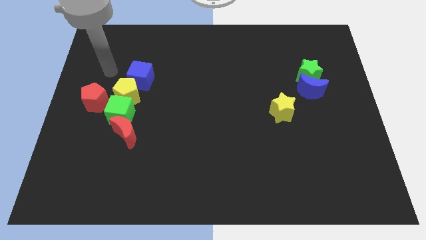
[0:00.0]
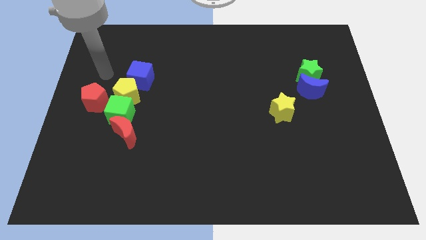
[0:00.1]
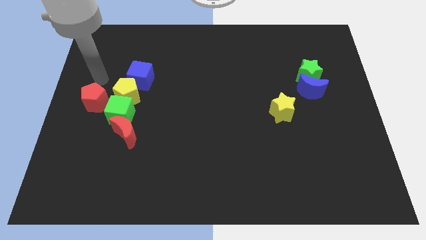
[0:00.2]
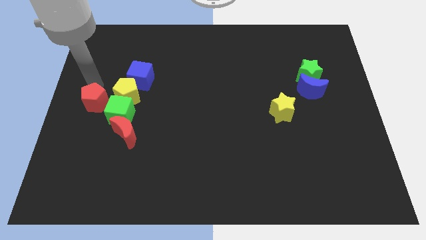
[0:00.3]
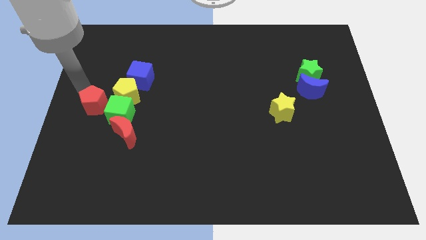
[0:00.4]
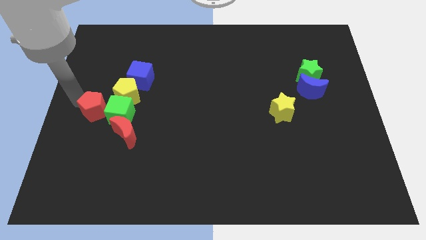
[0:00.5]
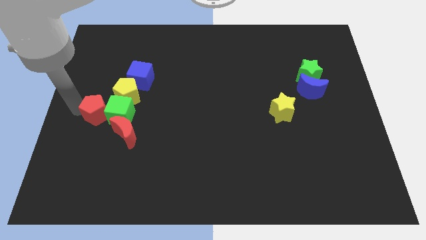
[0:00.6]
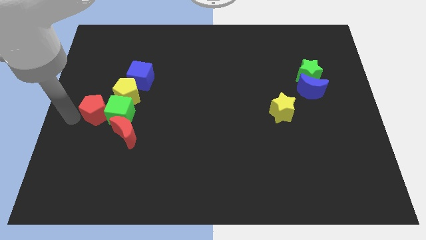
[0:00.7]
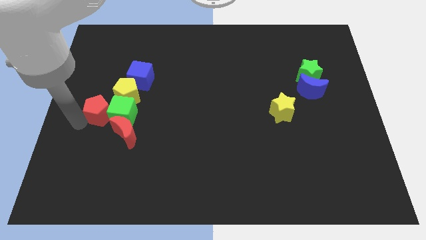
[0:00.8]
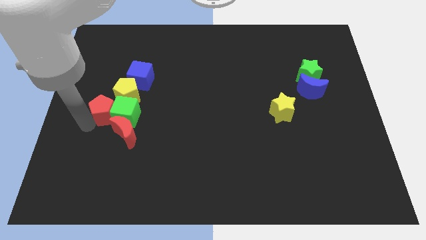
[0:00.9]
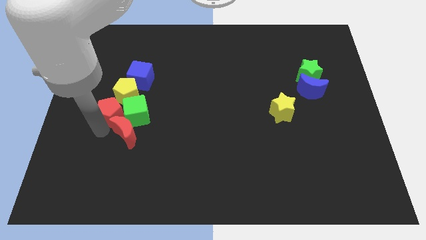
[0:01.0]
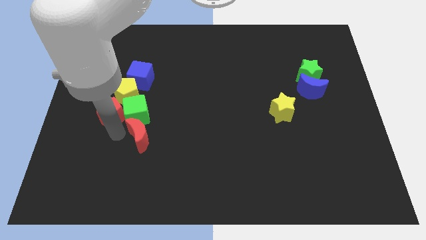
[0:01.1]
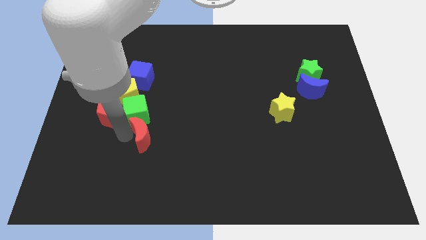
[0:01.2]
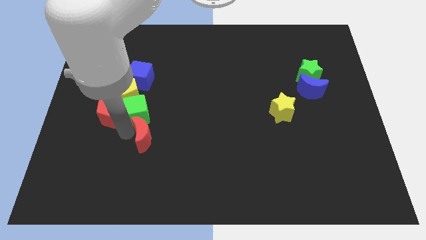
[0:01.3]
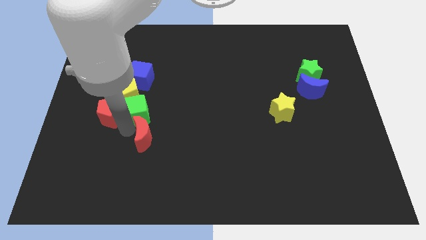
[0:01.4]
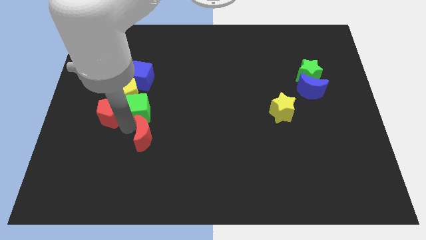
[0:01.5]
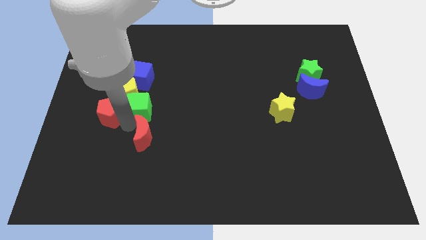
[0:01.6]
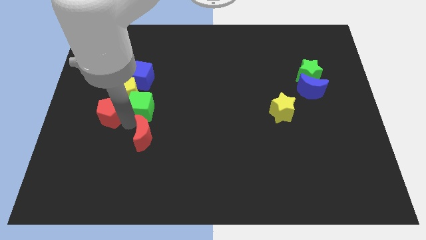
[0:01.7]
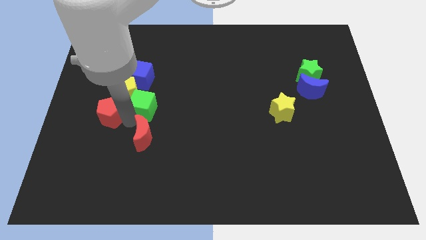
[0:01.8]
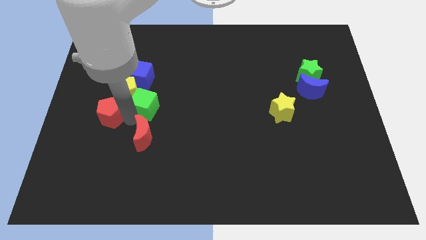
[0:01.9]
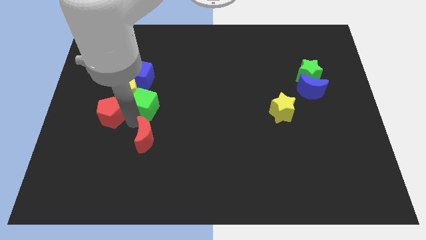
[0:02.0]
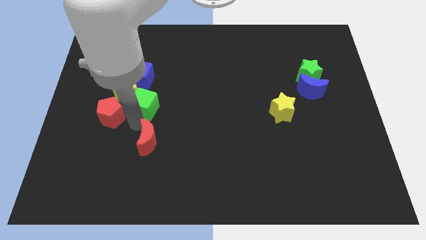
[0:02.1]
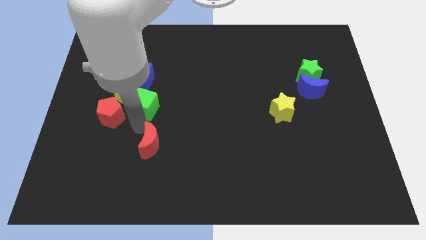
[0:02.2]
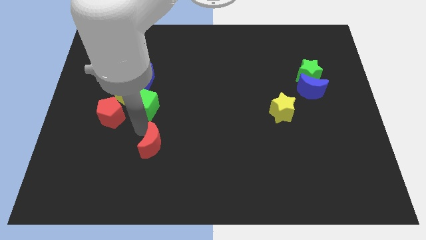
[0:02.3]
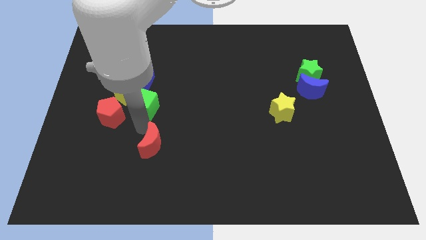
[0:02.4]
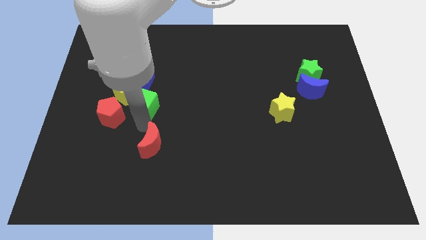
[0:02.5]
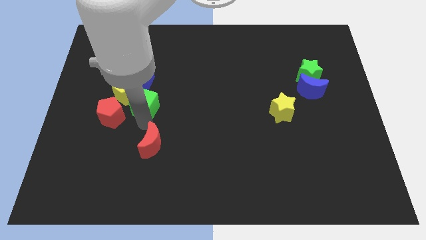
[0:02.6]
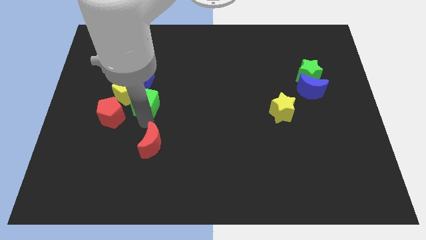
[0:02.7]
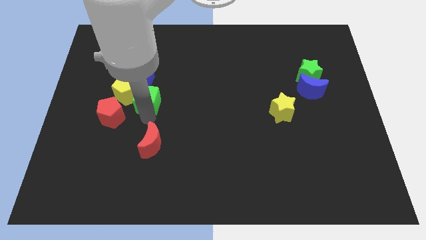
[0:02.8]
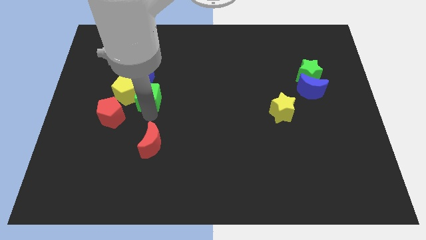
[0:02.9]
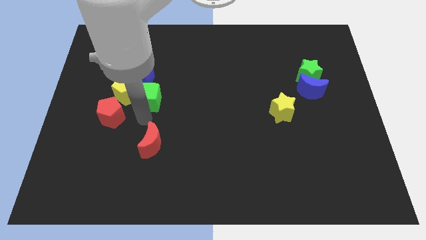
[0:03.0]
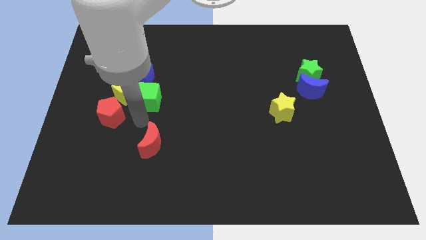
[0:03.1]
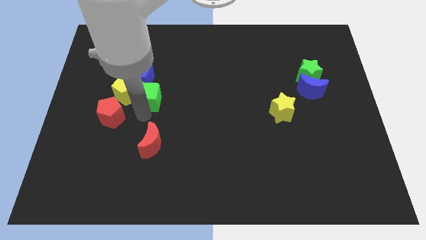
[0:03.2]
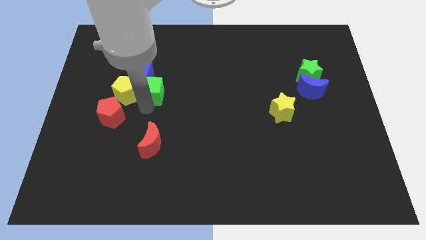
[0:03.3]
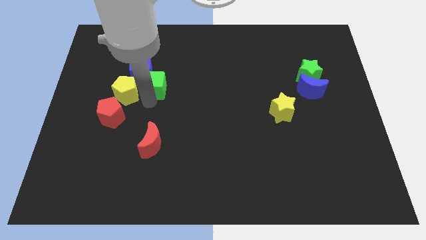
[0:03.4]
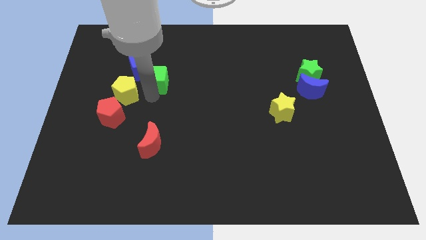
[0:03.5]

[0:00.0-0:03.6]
slide the green cube upwards a bit

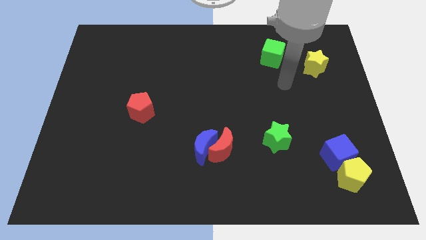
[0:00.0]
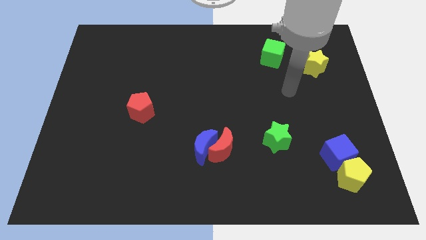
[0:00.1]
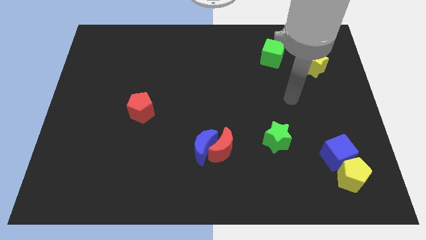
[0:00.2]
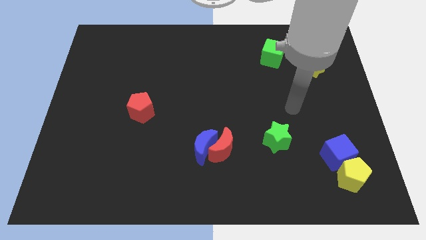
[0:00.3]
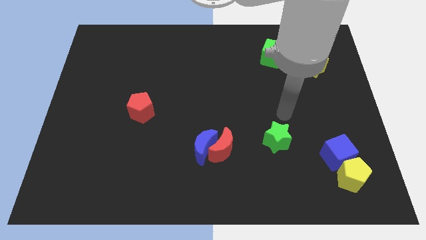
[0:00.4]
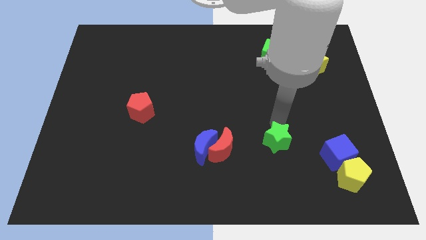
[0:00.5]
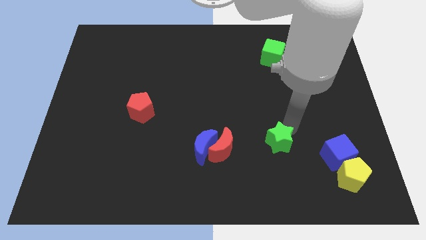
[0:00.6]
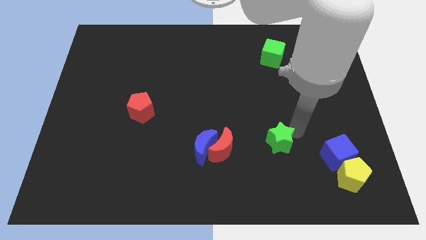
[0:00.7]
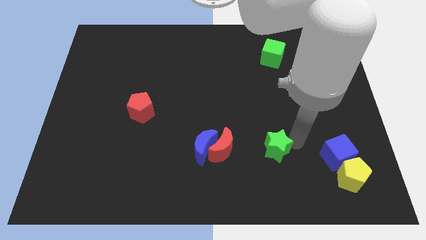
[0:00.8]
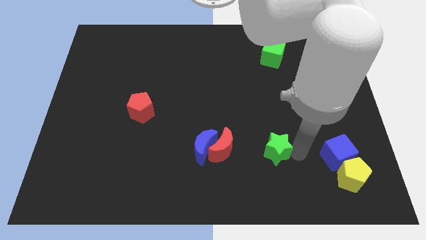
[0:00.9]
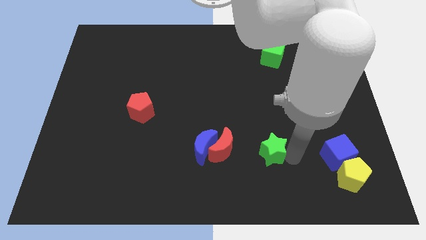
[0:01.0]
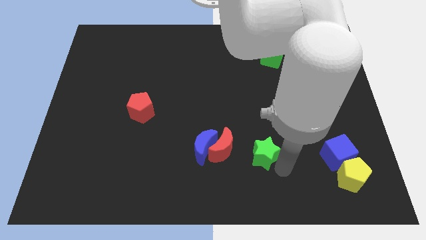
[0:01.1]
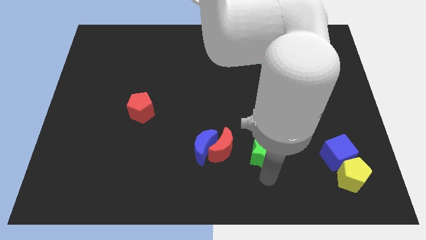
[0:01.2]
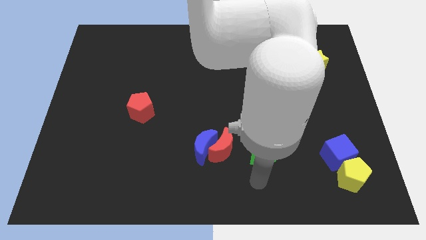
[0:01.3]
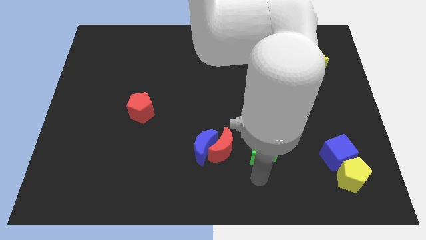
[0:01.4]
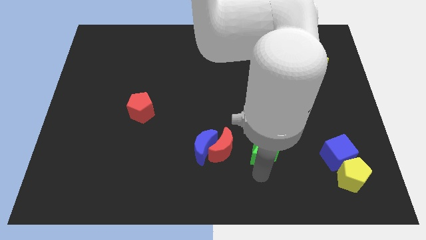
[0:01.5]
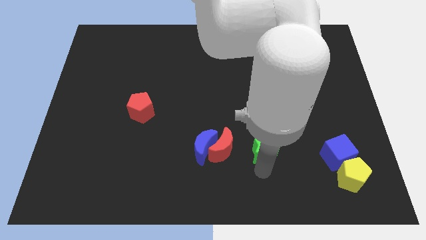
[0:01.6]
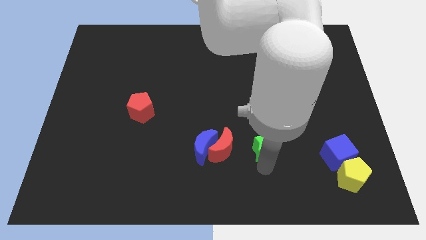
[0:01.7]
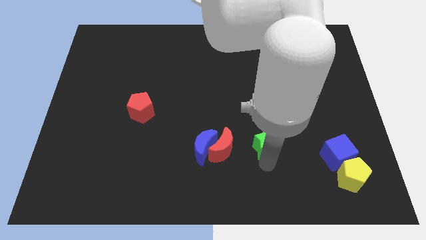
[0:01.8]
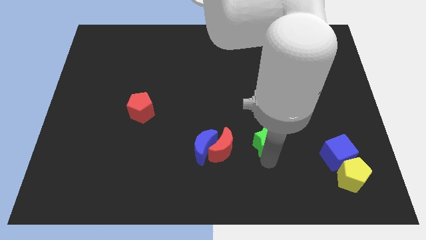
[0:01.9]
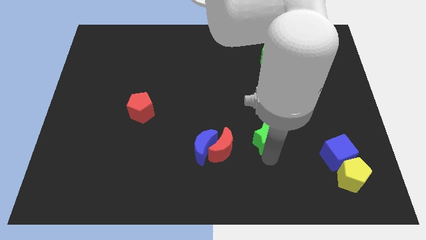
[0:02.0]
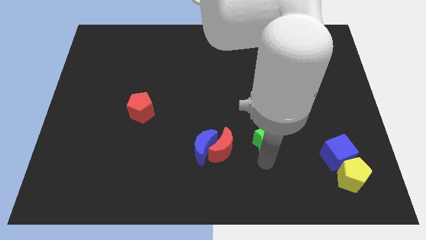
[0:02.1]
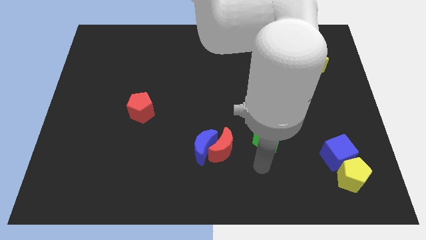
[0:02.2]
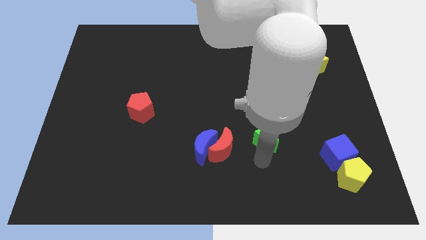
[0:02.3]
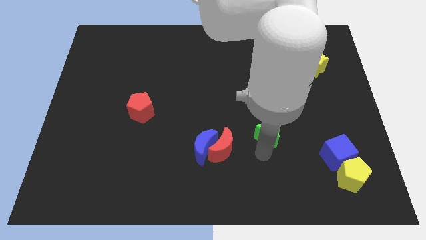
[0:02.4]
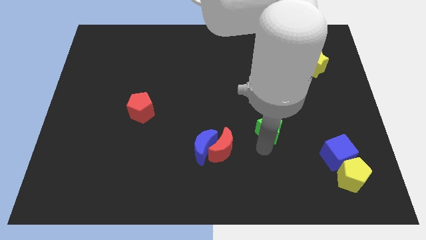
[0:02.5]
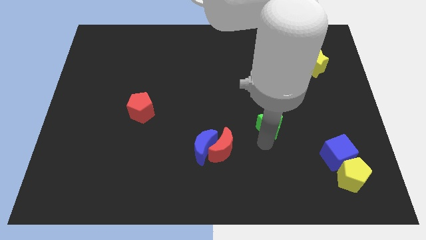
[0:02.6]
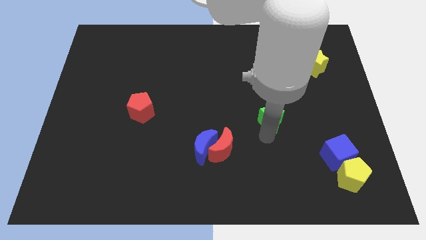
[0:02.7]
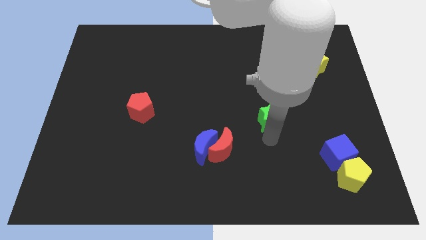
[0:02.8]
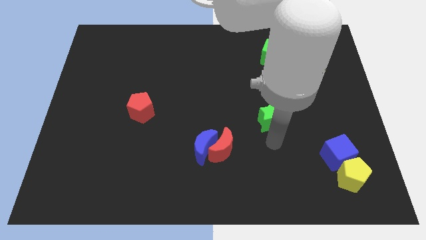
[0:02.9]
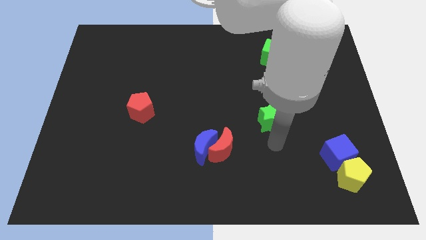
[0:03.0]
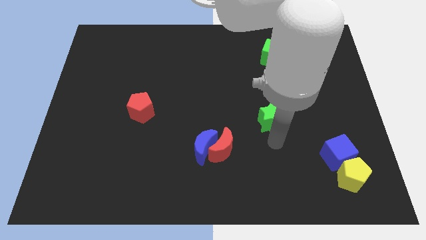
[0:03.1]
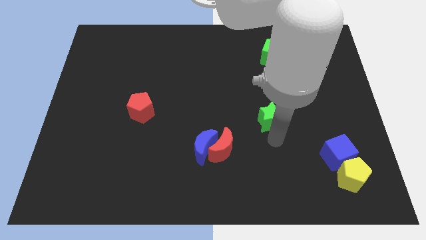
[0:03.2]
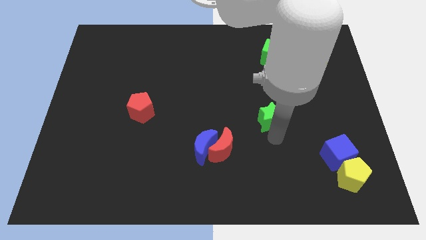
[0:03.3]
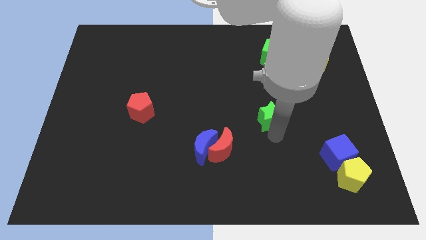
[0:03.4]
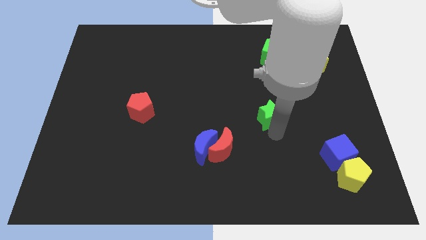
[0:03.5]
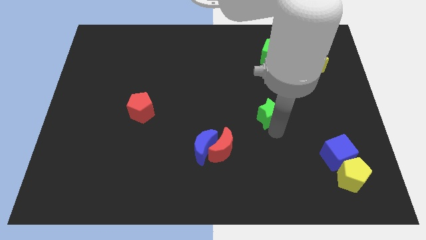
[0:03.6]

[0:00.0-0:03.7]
slightly push the green star up

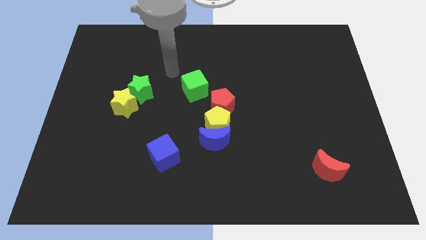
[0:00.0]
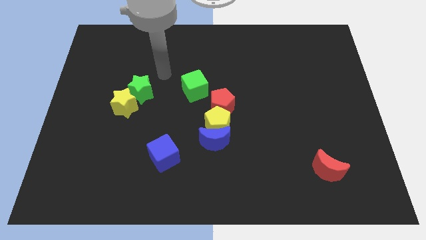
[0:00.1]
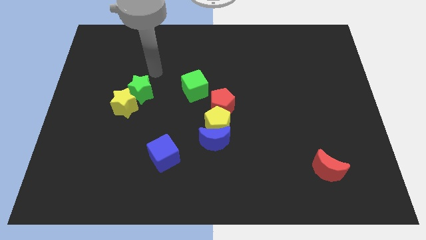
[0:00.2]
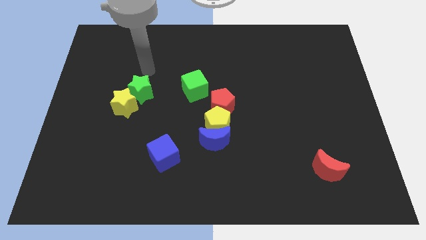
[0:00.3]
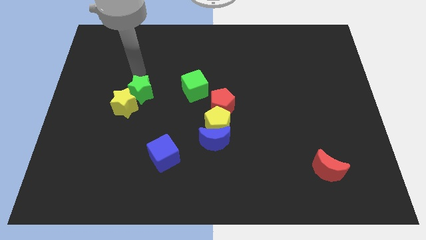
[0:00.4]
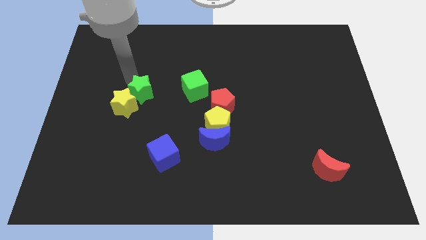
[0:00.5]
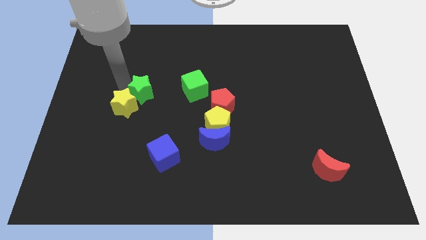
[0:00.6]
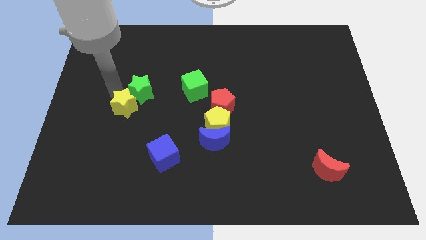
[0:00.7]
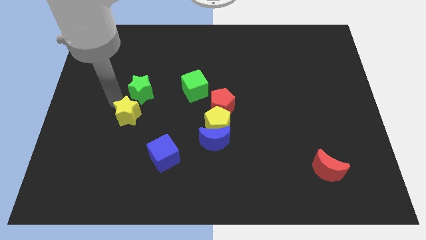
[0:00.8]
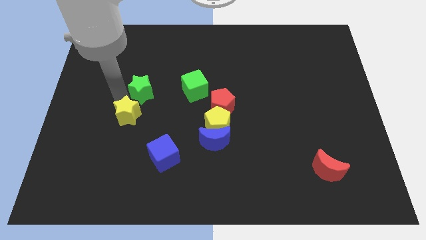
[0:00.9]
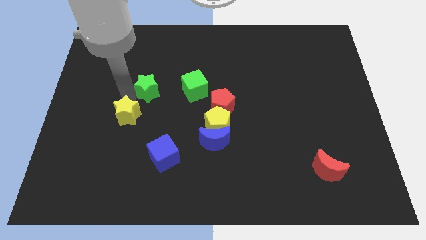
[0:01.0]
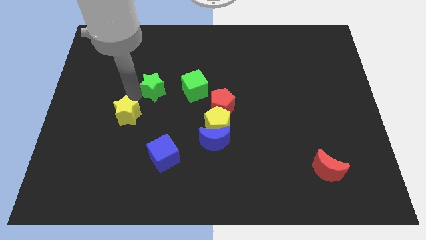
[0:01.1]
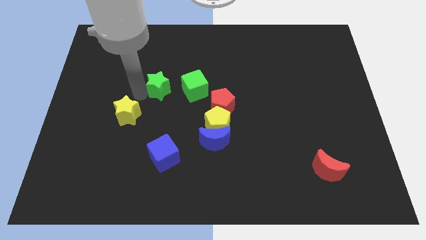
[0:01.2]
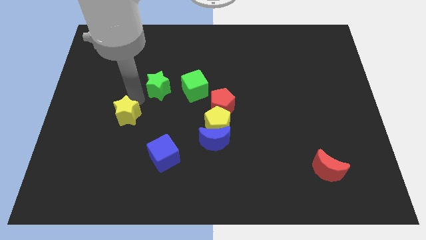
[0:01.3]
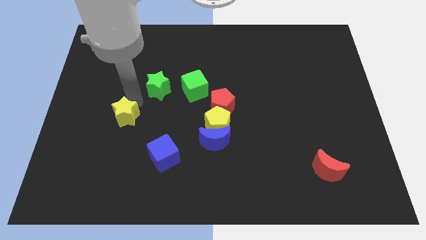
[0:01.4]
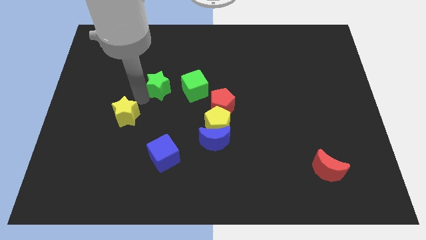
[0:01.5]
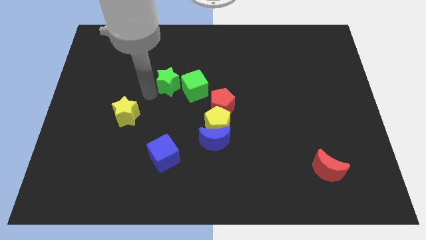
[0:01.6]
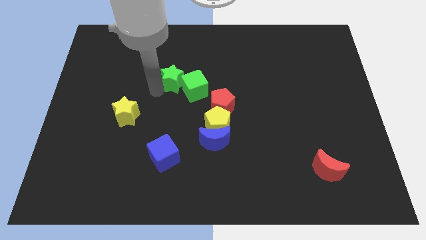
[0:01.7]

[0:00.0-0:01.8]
move the green star right a little bit
